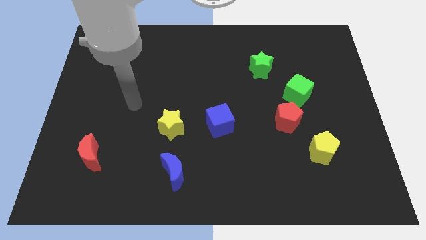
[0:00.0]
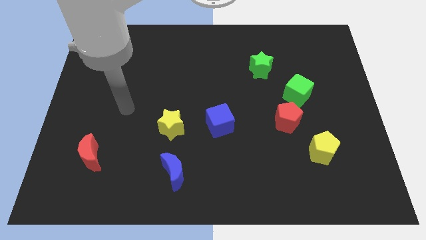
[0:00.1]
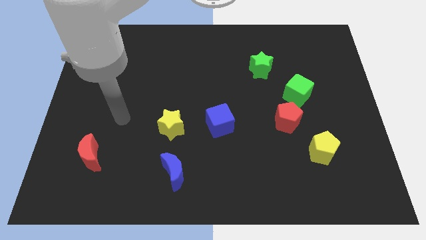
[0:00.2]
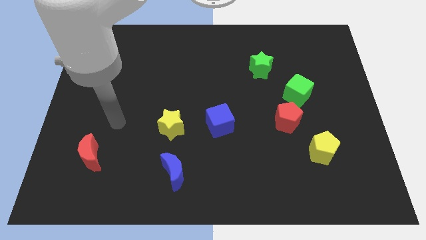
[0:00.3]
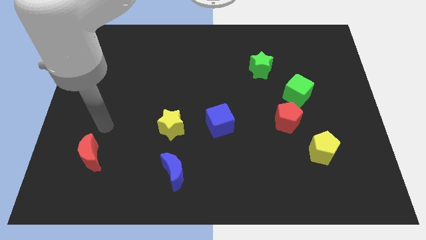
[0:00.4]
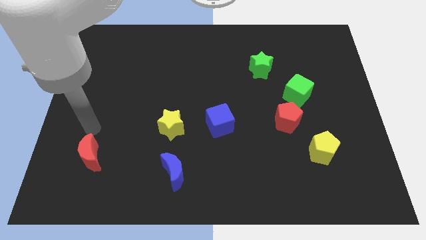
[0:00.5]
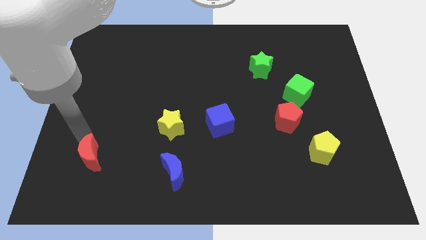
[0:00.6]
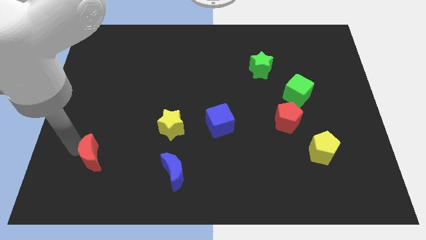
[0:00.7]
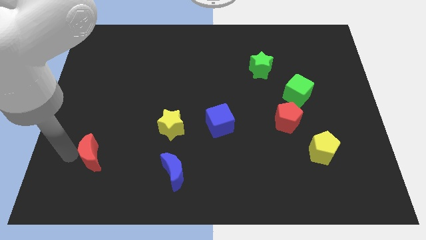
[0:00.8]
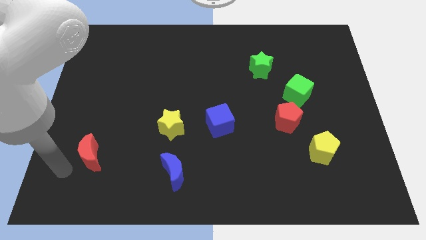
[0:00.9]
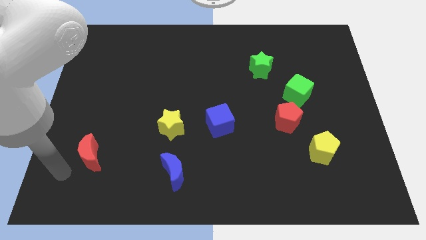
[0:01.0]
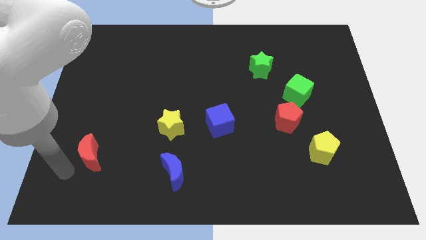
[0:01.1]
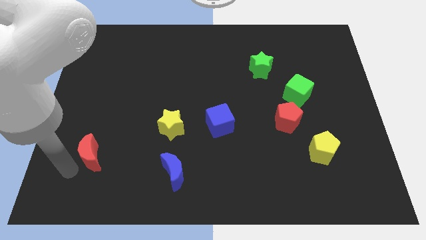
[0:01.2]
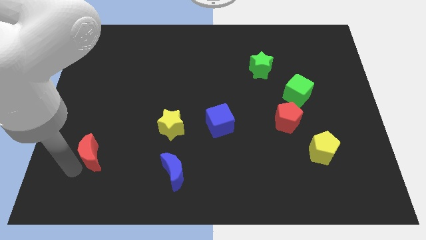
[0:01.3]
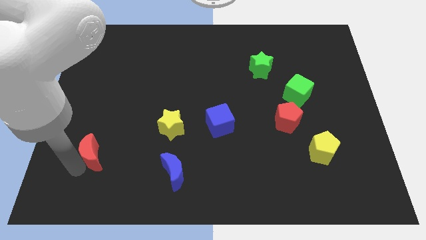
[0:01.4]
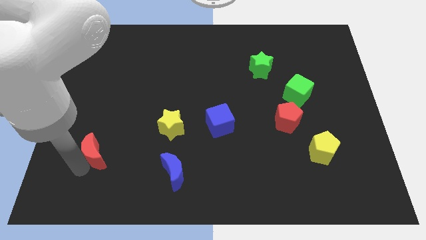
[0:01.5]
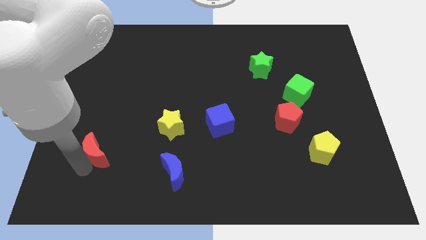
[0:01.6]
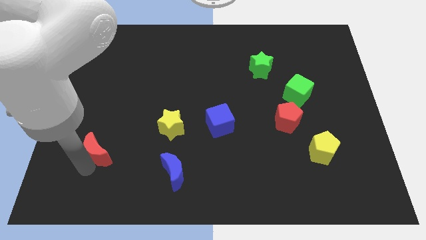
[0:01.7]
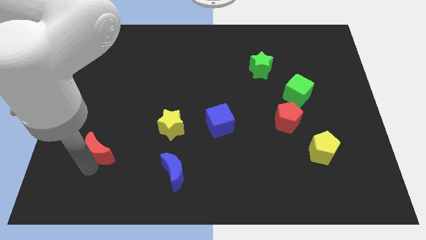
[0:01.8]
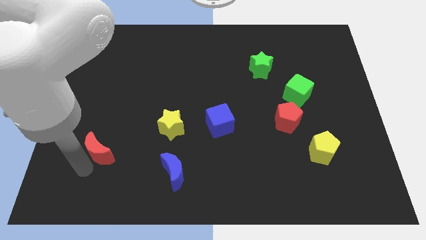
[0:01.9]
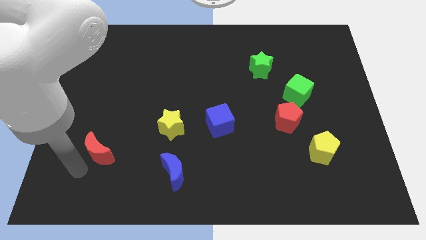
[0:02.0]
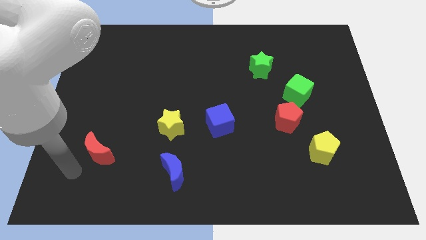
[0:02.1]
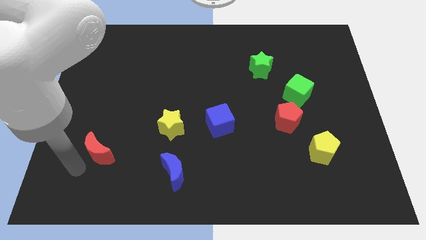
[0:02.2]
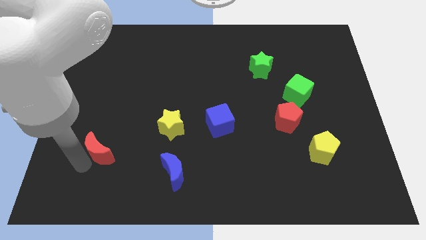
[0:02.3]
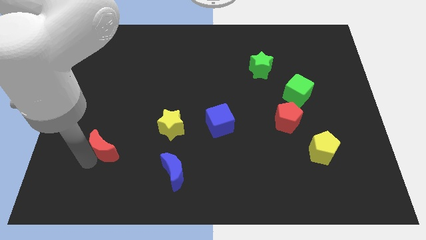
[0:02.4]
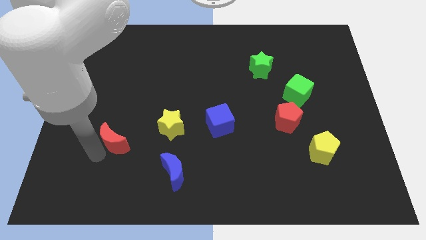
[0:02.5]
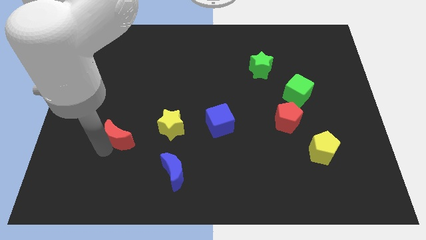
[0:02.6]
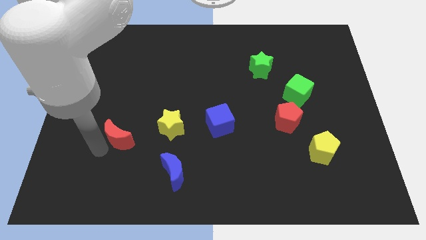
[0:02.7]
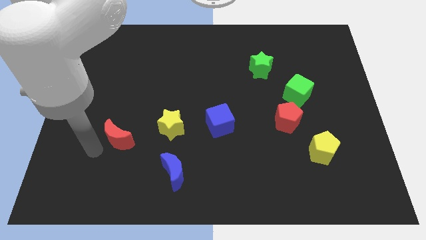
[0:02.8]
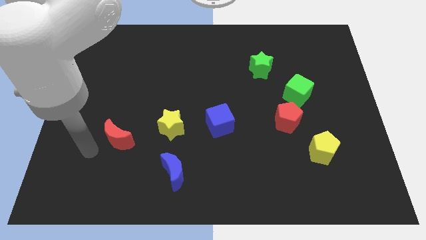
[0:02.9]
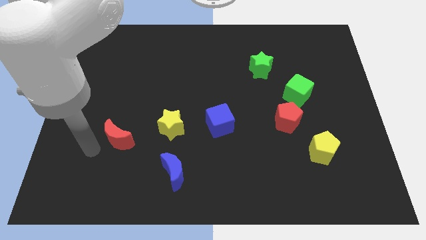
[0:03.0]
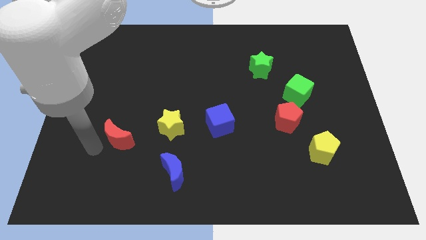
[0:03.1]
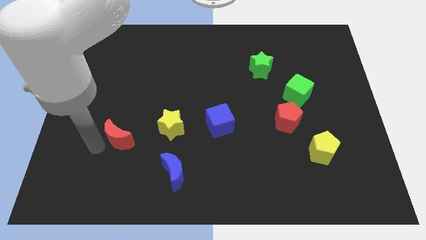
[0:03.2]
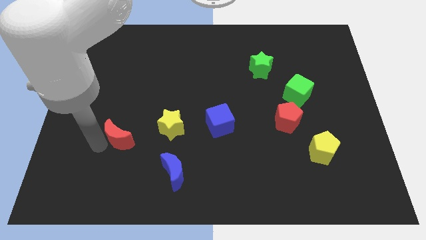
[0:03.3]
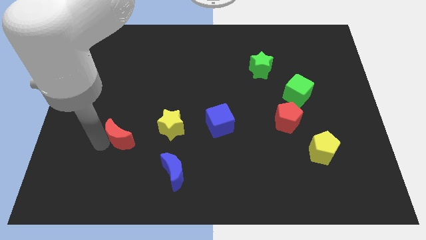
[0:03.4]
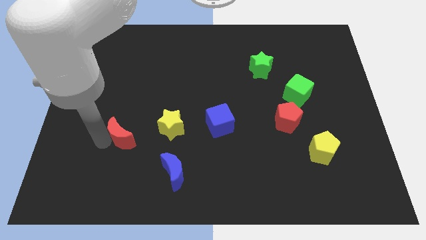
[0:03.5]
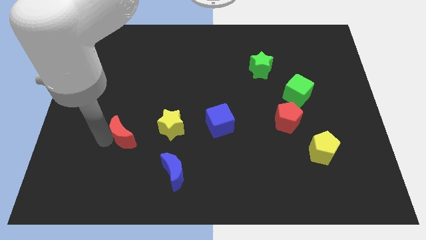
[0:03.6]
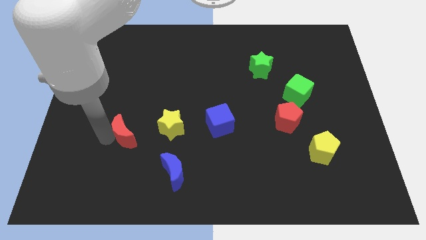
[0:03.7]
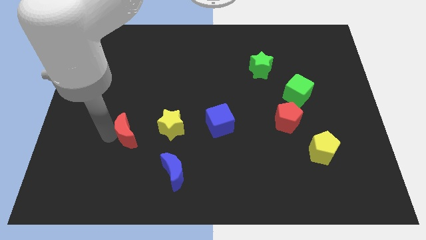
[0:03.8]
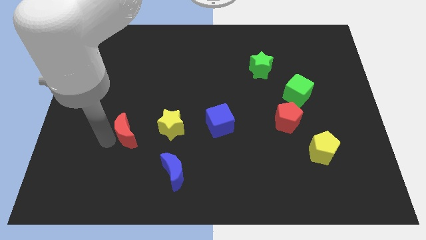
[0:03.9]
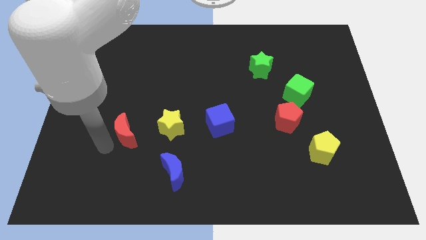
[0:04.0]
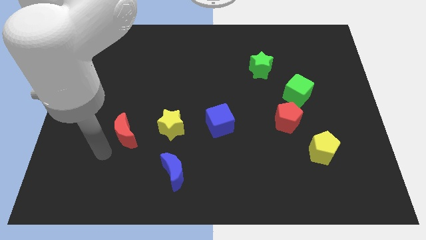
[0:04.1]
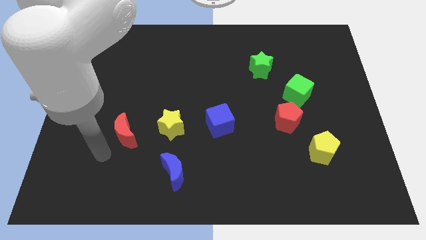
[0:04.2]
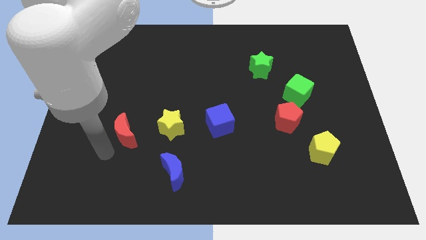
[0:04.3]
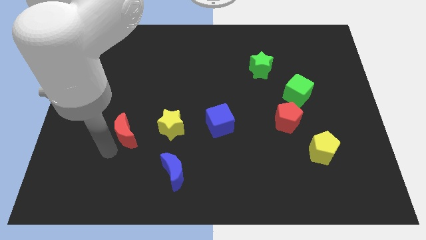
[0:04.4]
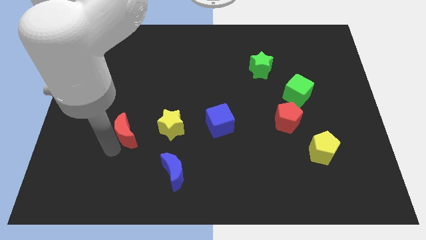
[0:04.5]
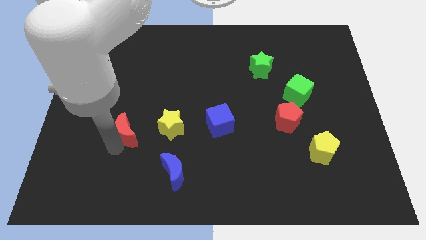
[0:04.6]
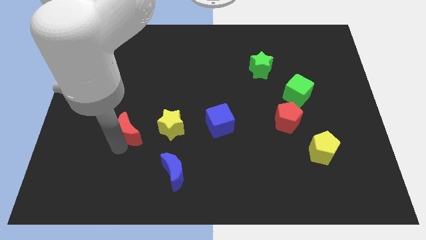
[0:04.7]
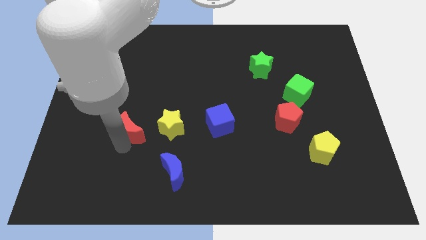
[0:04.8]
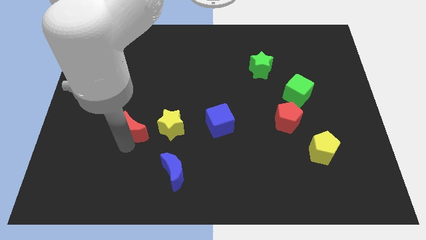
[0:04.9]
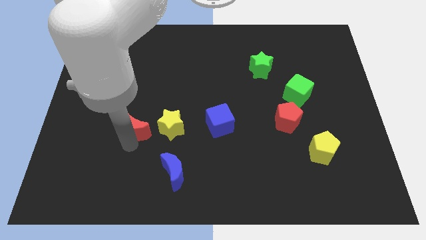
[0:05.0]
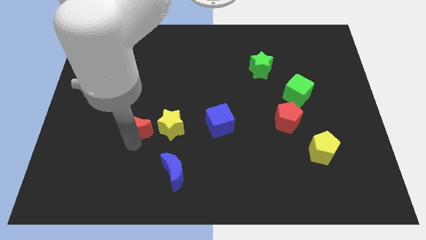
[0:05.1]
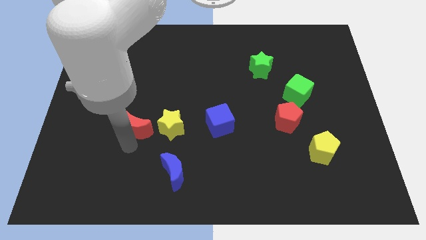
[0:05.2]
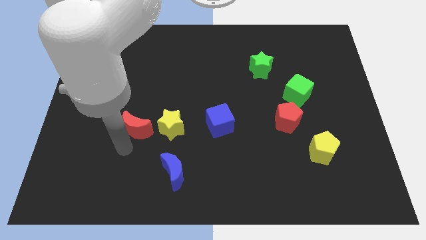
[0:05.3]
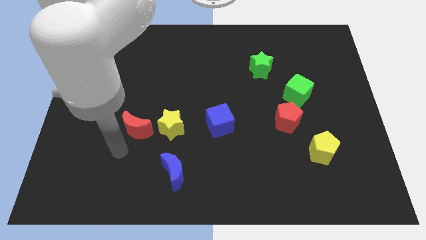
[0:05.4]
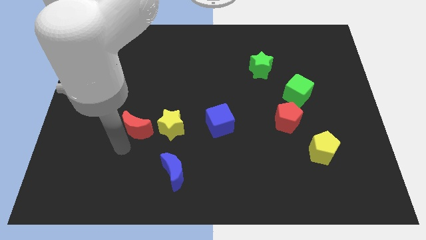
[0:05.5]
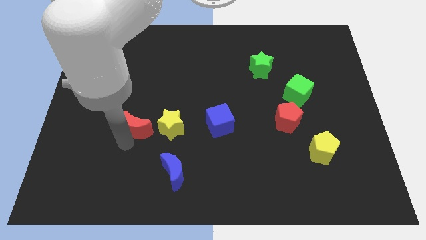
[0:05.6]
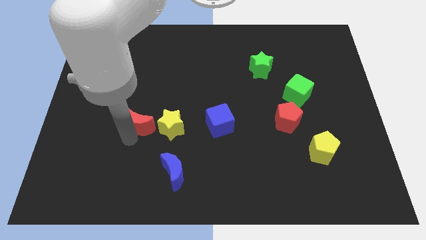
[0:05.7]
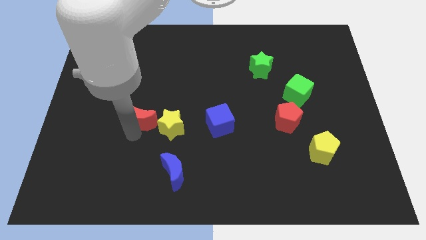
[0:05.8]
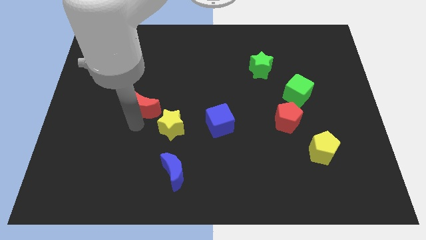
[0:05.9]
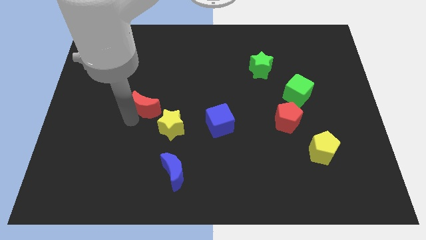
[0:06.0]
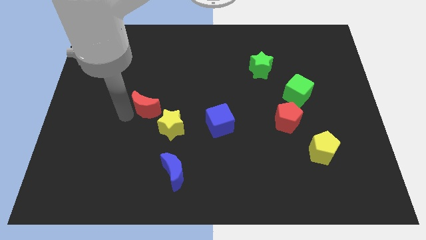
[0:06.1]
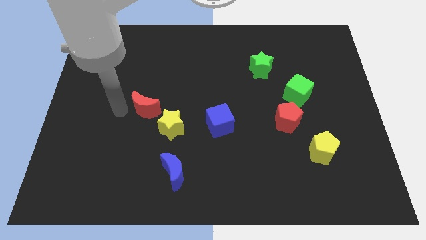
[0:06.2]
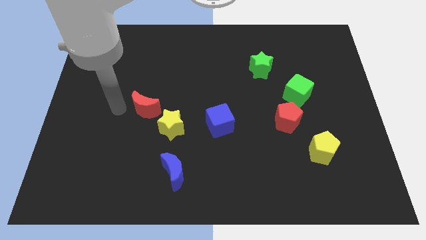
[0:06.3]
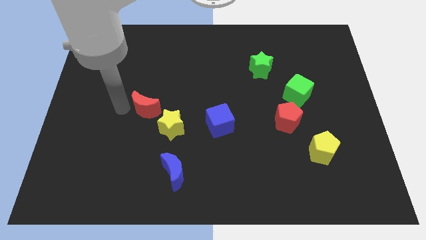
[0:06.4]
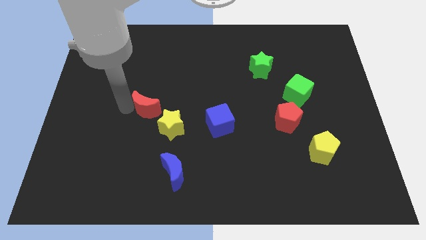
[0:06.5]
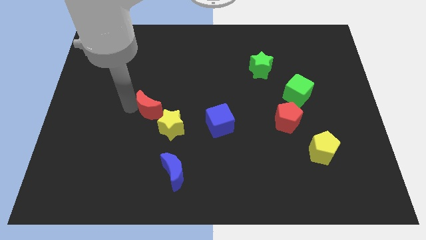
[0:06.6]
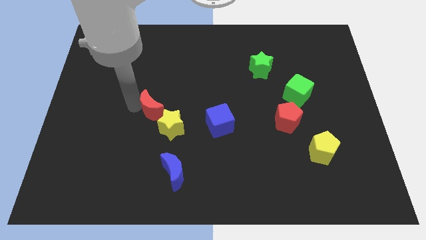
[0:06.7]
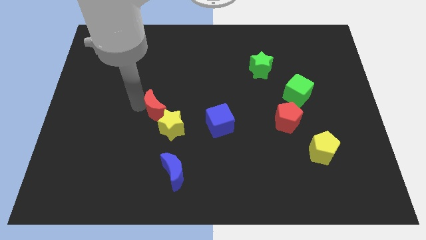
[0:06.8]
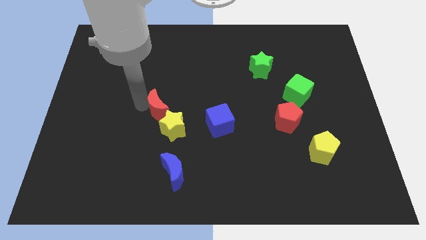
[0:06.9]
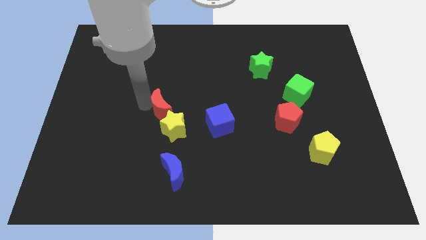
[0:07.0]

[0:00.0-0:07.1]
move the red moon to the middle of the board
